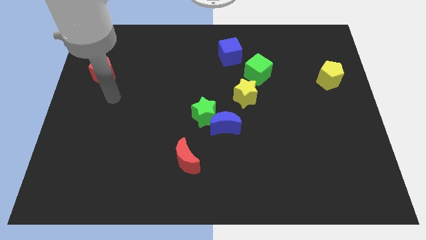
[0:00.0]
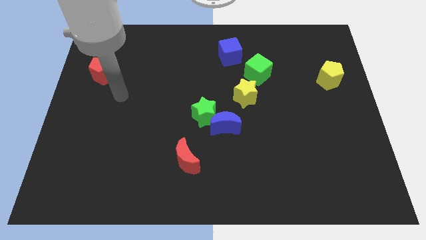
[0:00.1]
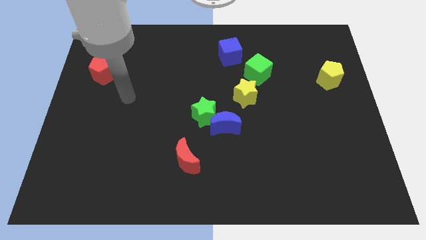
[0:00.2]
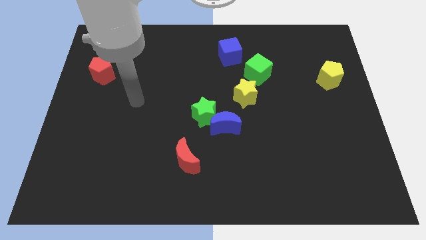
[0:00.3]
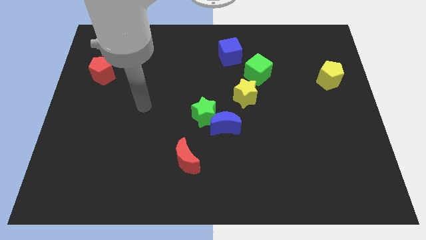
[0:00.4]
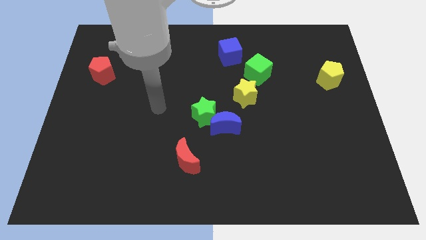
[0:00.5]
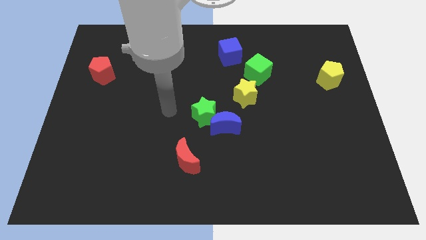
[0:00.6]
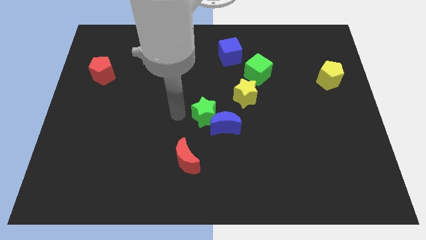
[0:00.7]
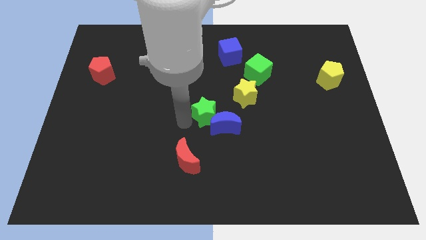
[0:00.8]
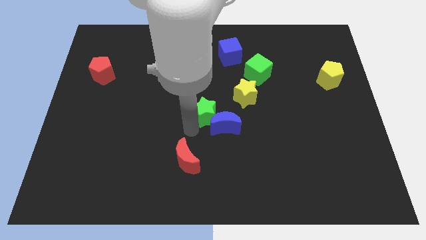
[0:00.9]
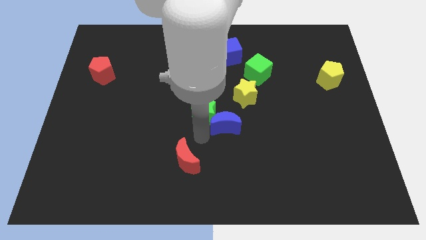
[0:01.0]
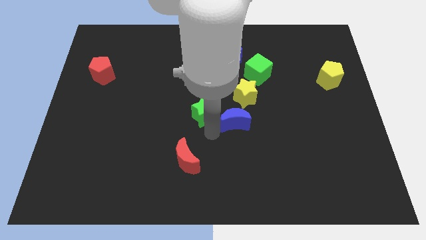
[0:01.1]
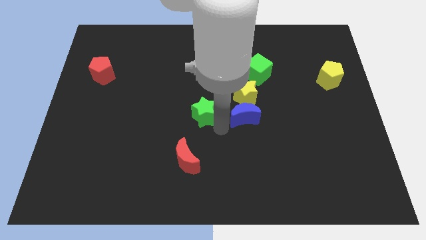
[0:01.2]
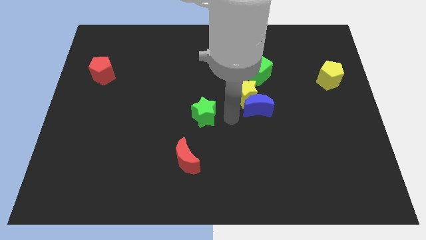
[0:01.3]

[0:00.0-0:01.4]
pull the green star apart from the blue moon

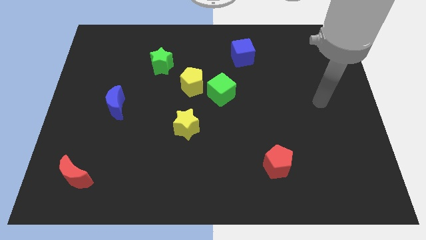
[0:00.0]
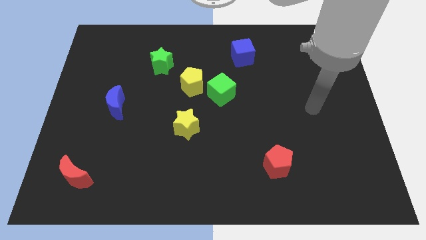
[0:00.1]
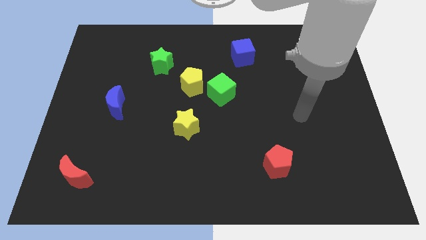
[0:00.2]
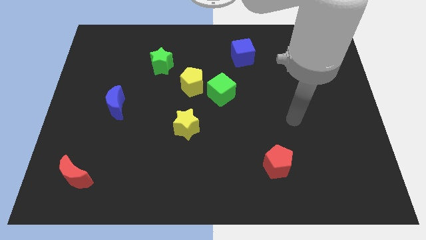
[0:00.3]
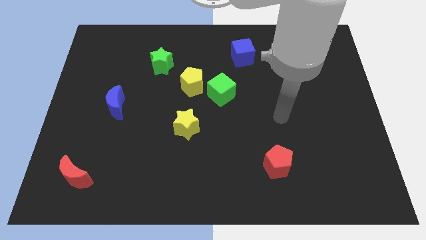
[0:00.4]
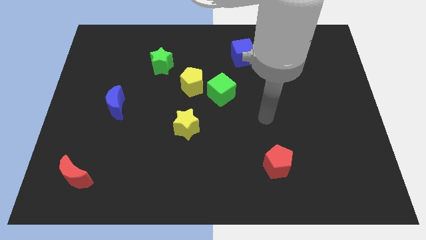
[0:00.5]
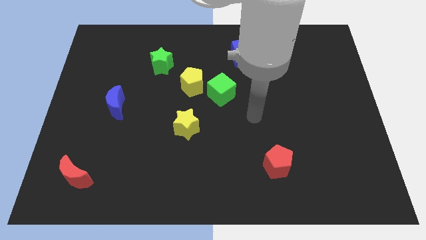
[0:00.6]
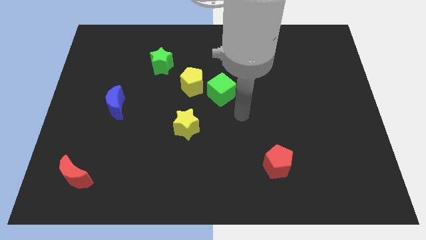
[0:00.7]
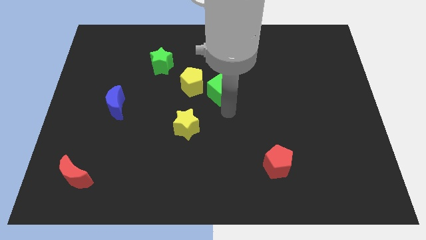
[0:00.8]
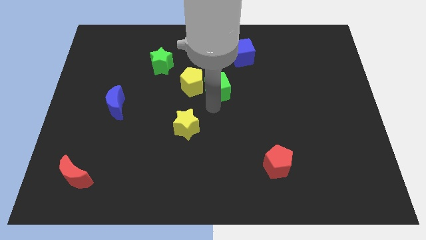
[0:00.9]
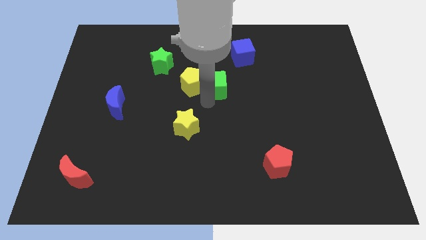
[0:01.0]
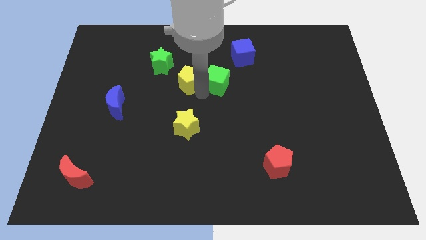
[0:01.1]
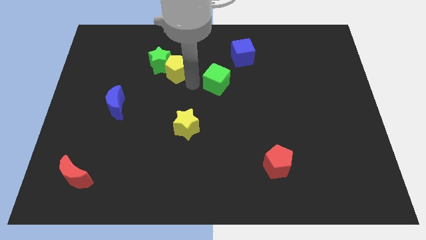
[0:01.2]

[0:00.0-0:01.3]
move the green cube away from the yellow pentagon

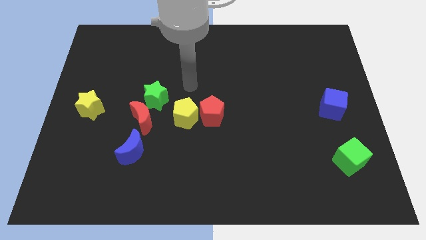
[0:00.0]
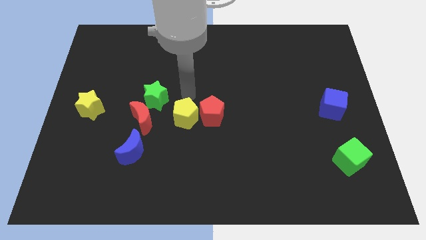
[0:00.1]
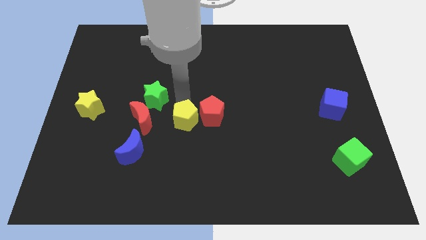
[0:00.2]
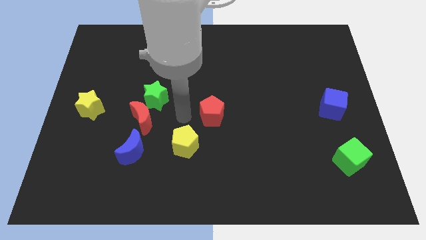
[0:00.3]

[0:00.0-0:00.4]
pull the red pentagon apart from the yellow pentagon

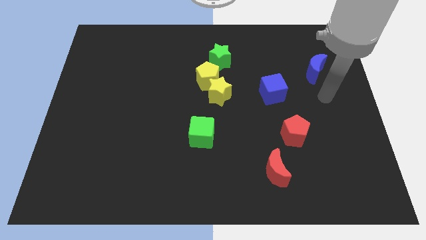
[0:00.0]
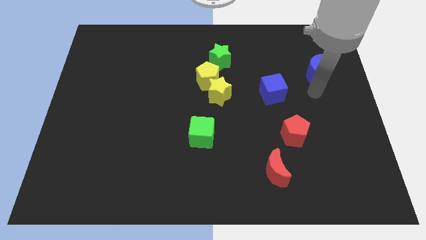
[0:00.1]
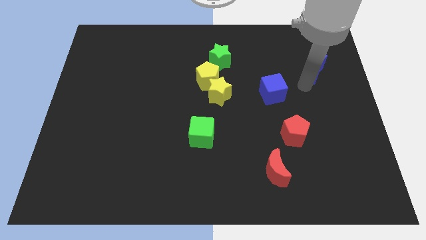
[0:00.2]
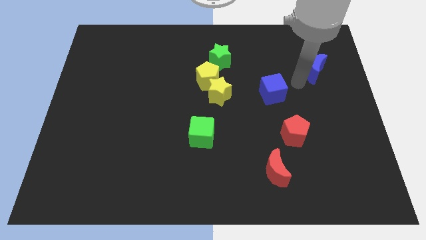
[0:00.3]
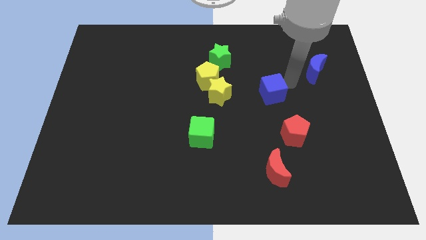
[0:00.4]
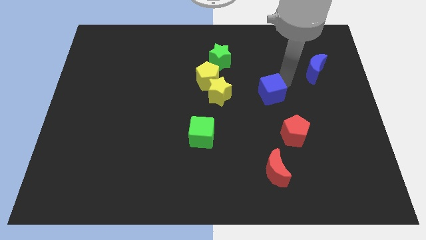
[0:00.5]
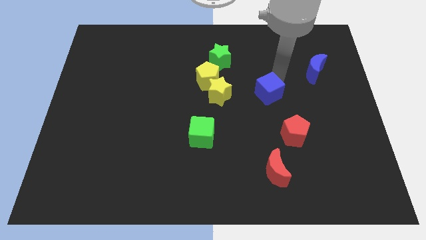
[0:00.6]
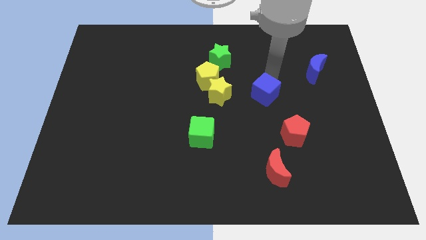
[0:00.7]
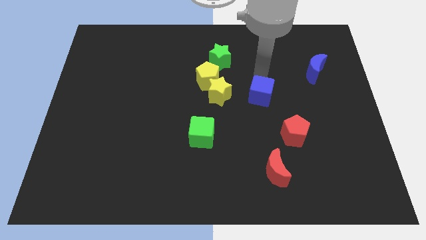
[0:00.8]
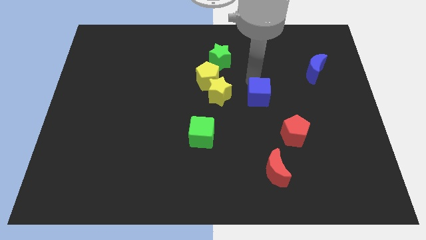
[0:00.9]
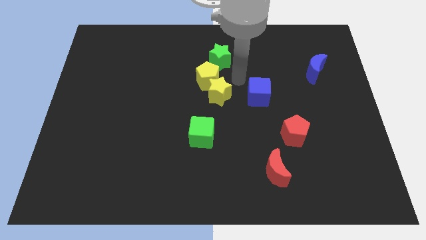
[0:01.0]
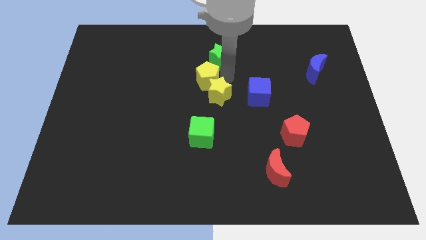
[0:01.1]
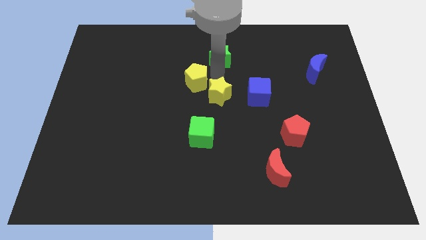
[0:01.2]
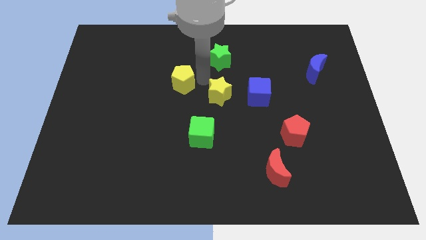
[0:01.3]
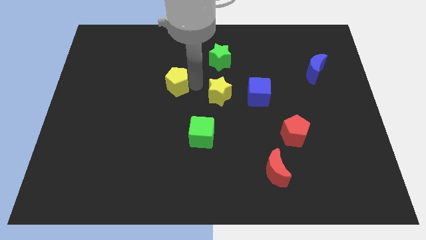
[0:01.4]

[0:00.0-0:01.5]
pull the yellow star apart from the yellow pentagon

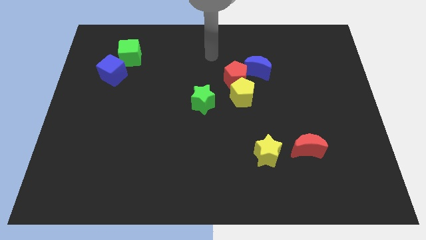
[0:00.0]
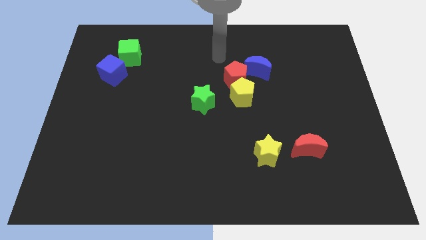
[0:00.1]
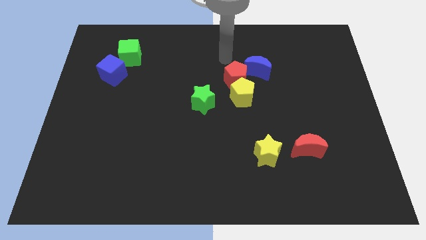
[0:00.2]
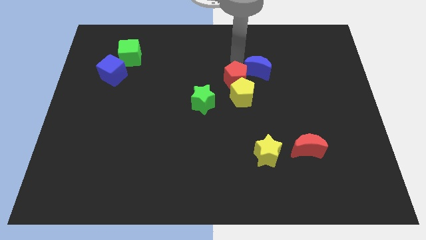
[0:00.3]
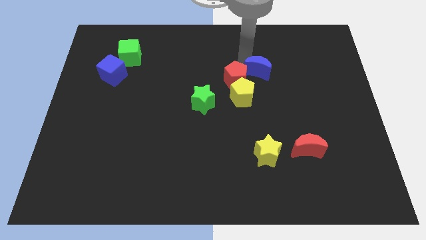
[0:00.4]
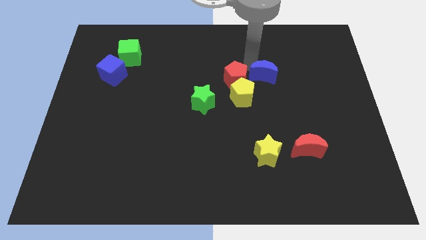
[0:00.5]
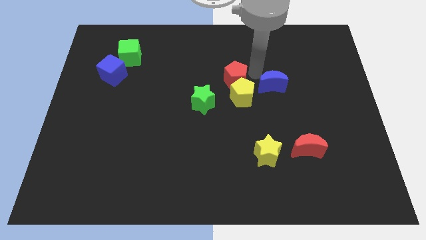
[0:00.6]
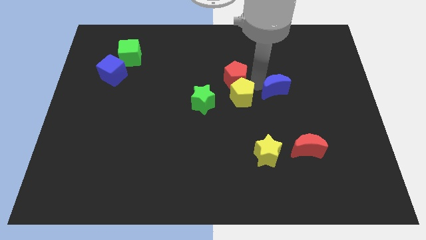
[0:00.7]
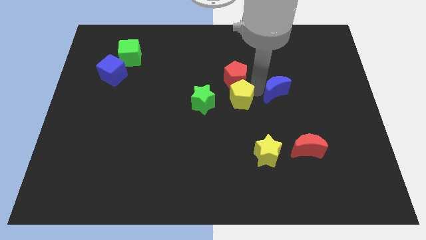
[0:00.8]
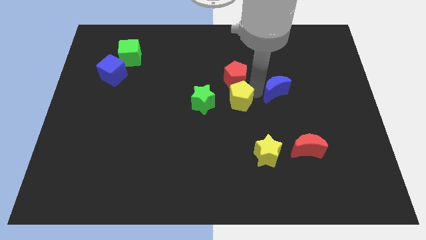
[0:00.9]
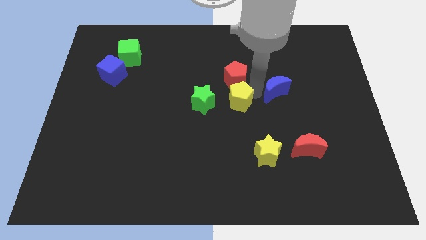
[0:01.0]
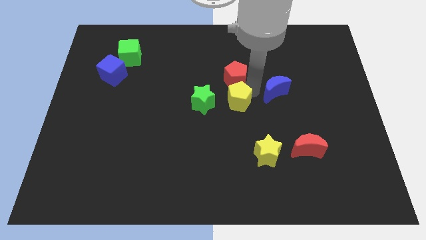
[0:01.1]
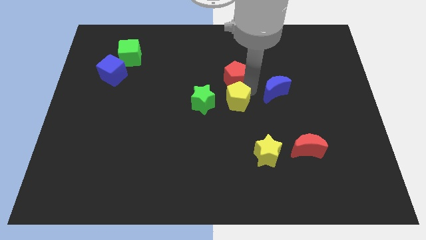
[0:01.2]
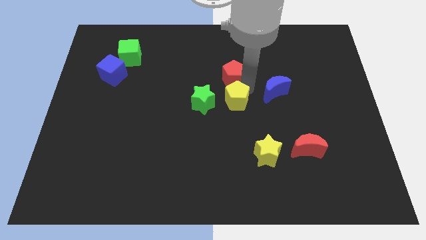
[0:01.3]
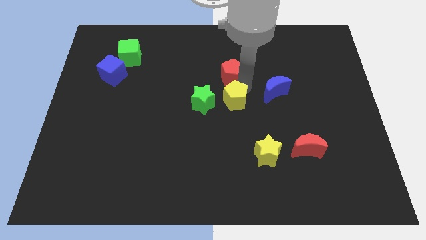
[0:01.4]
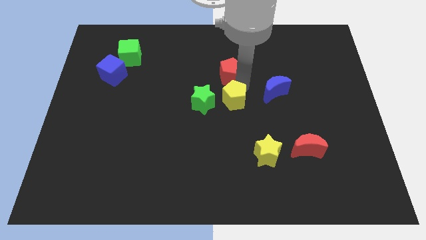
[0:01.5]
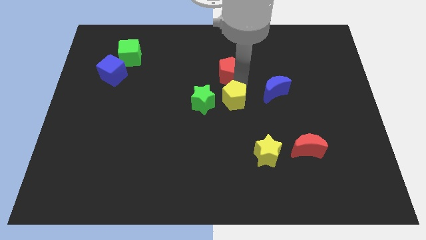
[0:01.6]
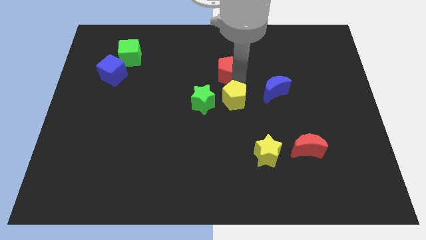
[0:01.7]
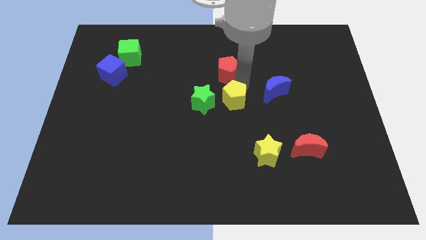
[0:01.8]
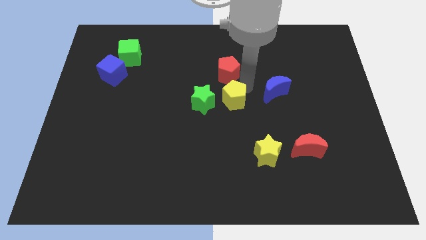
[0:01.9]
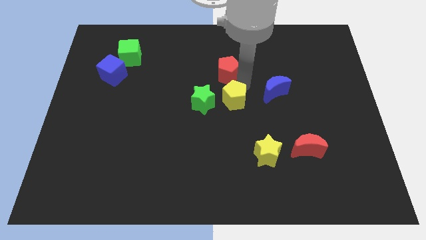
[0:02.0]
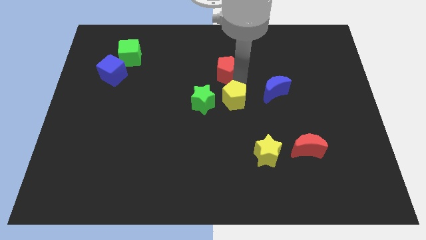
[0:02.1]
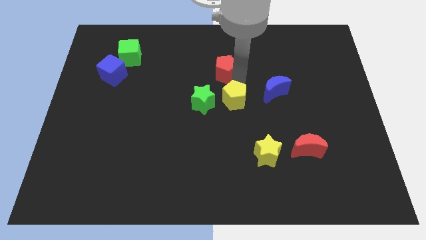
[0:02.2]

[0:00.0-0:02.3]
move the red pentagon away from the yellow pentagon and blue moon

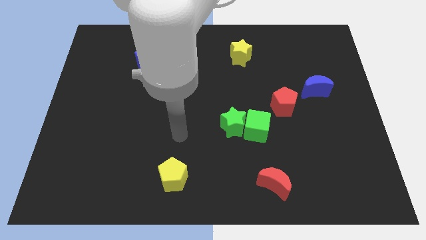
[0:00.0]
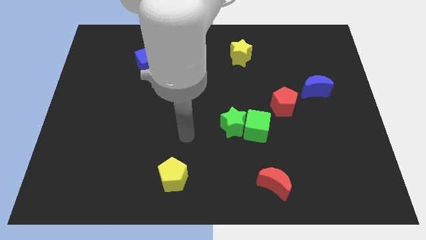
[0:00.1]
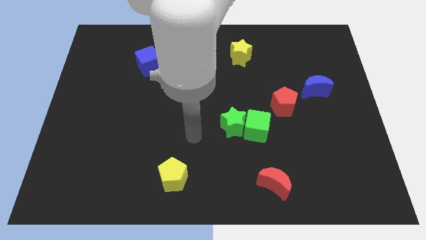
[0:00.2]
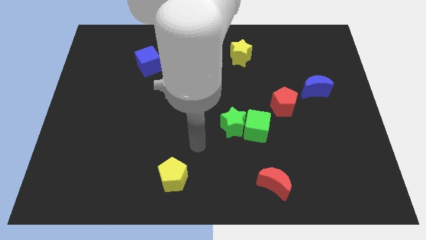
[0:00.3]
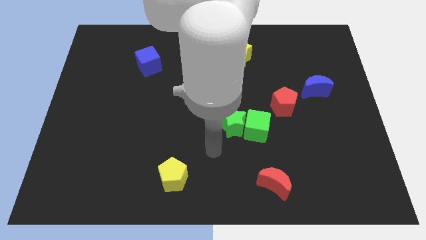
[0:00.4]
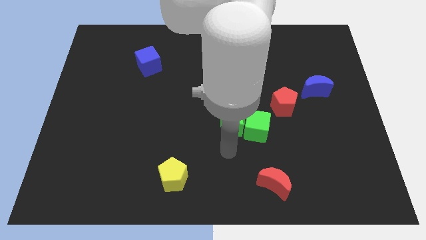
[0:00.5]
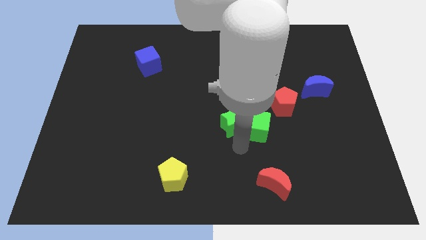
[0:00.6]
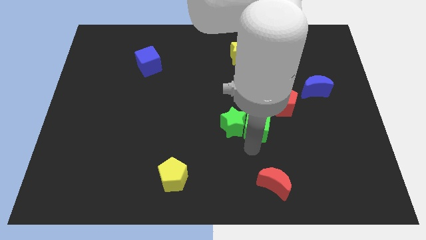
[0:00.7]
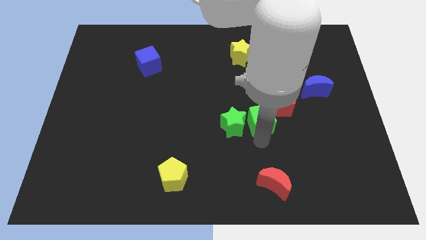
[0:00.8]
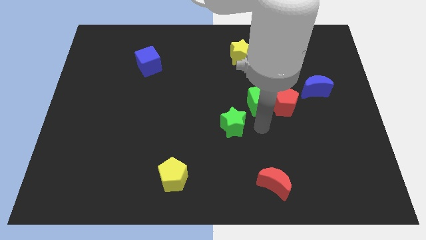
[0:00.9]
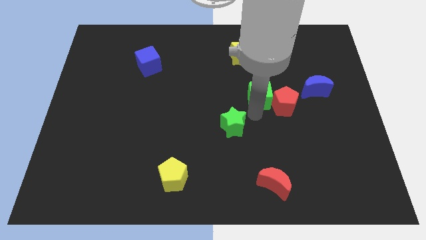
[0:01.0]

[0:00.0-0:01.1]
separate the green star from the green cube

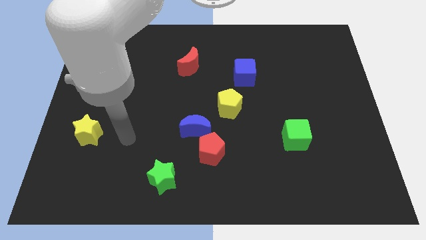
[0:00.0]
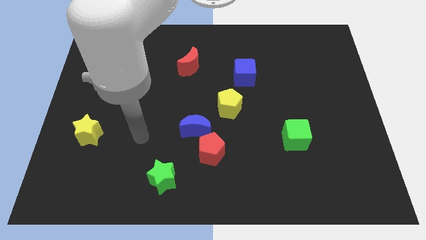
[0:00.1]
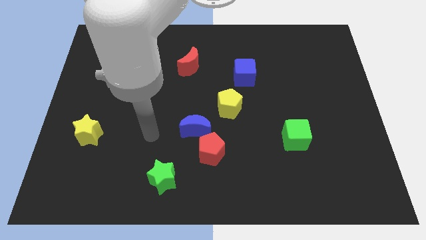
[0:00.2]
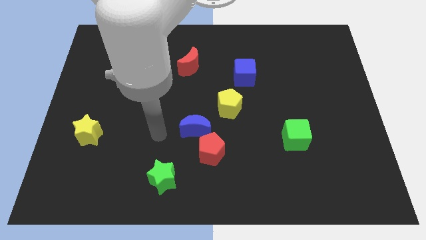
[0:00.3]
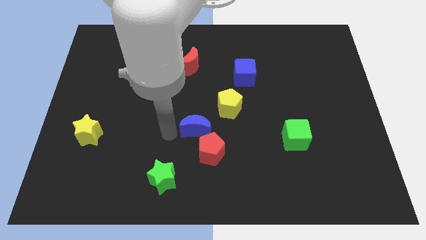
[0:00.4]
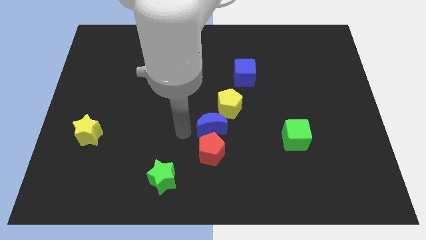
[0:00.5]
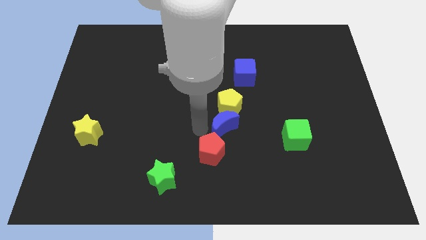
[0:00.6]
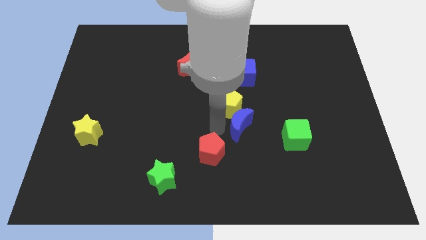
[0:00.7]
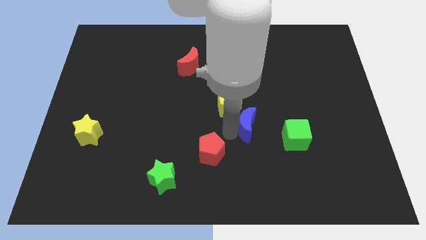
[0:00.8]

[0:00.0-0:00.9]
pull the red pentagon apart from the blue moon

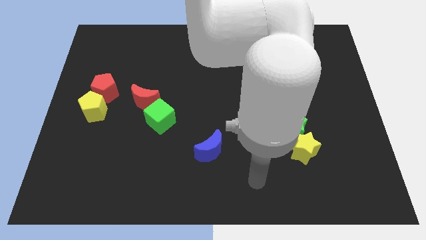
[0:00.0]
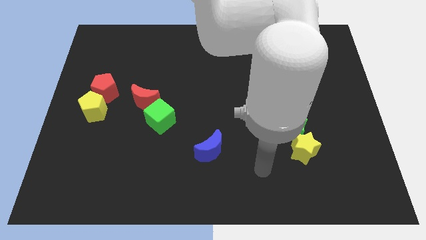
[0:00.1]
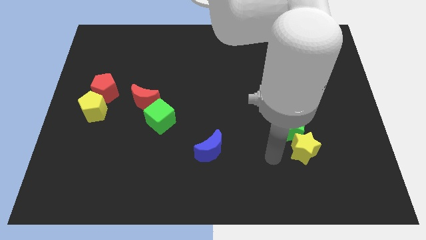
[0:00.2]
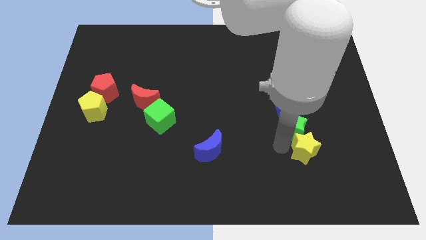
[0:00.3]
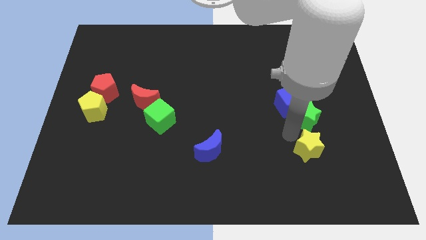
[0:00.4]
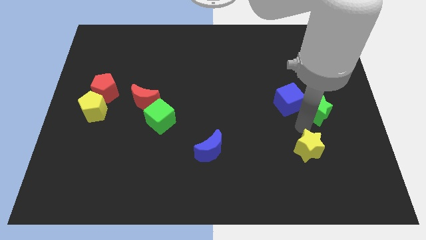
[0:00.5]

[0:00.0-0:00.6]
pull the yellow star apart from the green star
